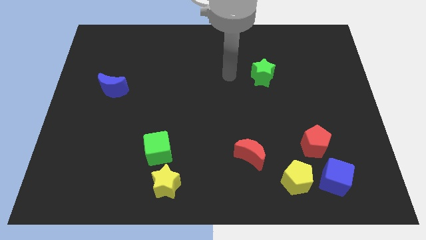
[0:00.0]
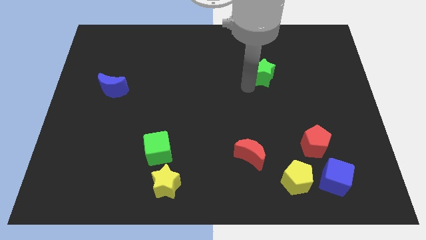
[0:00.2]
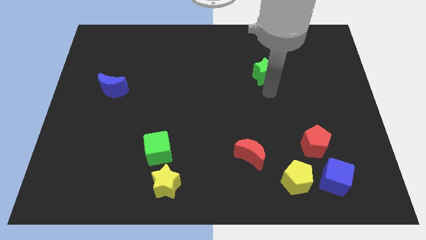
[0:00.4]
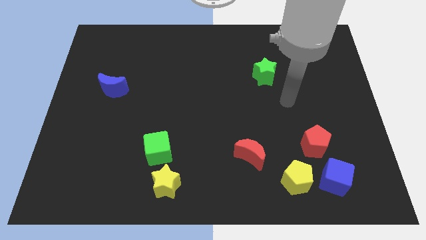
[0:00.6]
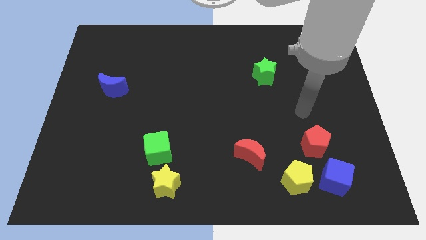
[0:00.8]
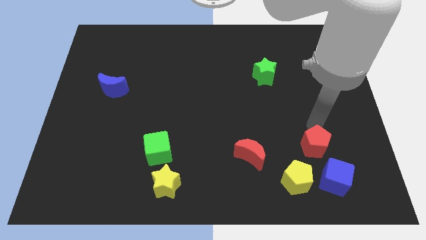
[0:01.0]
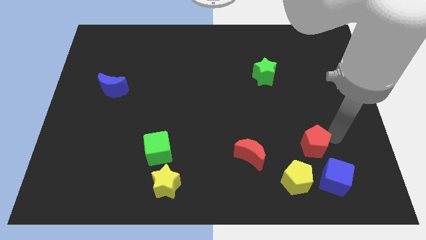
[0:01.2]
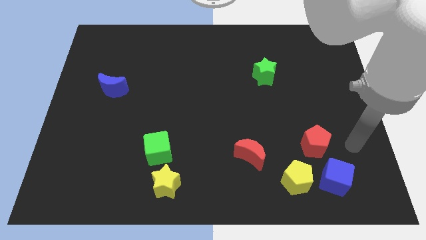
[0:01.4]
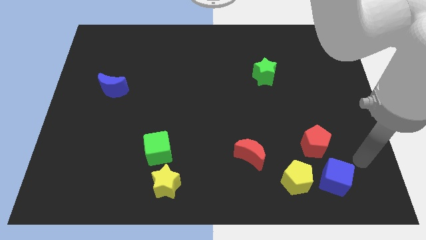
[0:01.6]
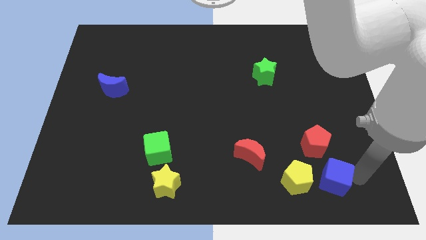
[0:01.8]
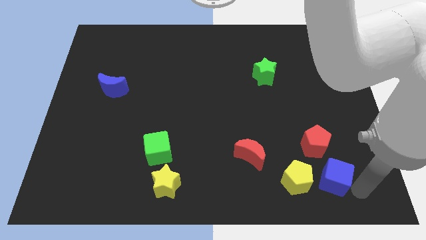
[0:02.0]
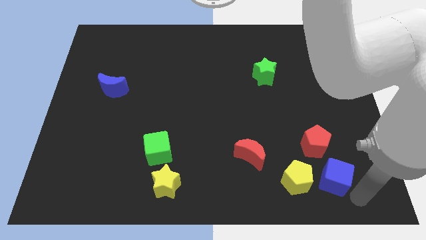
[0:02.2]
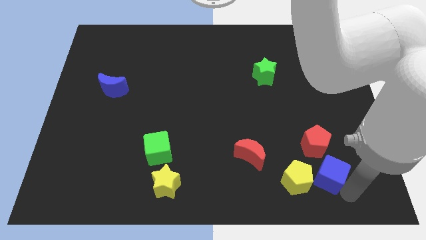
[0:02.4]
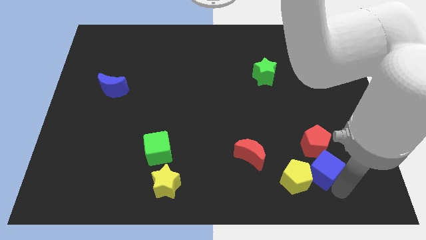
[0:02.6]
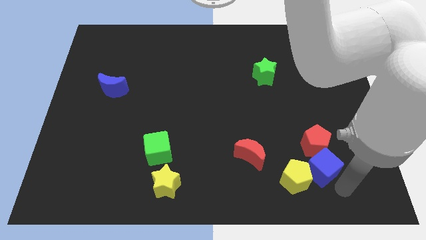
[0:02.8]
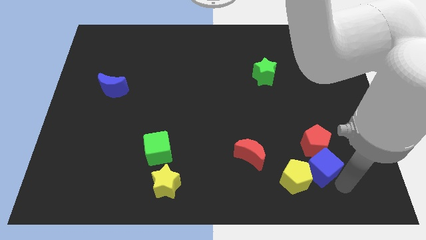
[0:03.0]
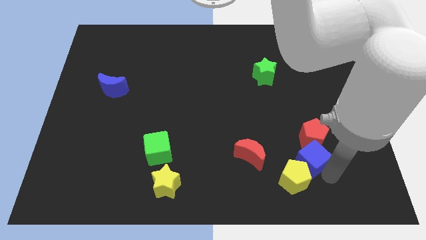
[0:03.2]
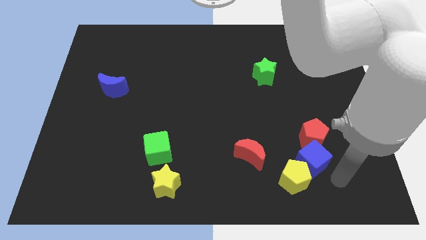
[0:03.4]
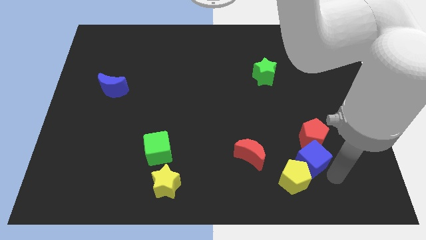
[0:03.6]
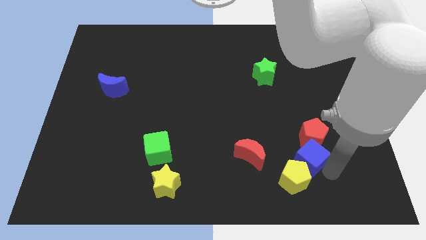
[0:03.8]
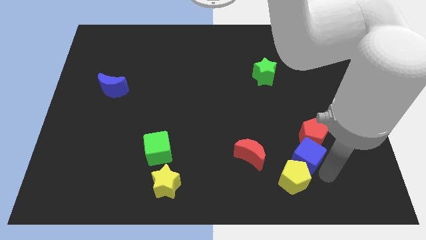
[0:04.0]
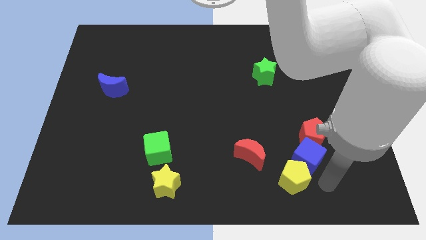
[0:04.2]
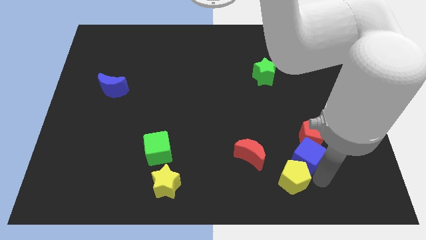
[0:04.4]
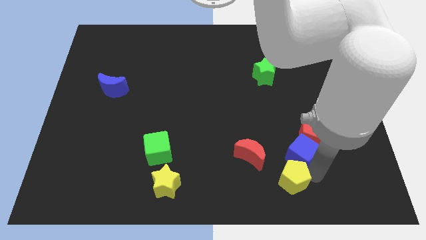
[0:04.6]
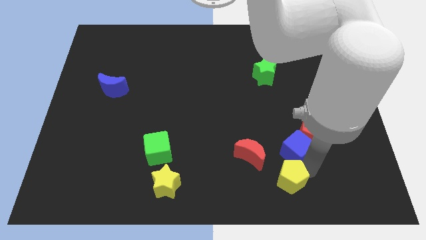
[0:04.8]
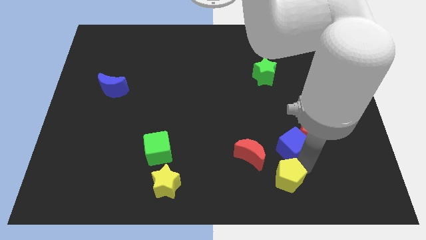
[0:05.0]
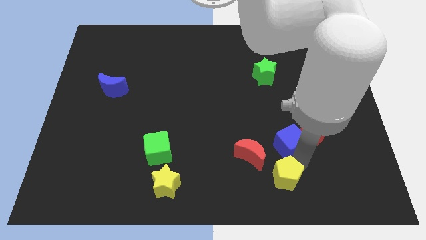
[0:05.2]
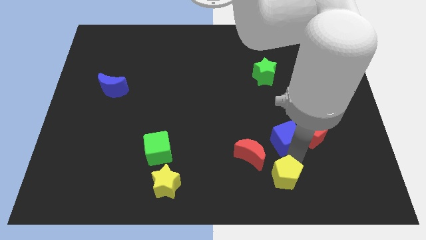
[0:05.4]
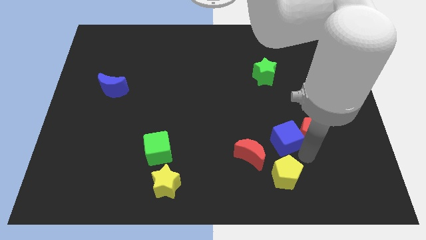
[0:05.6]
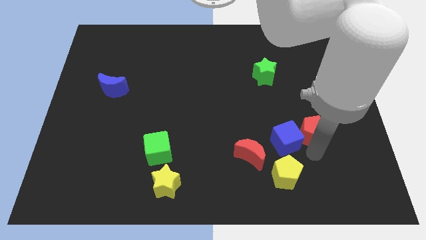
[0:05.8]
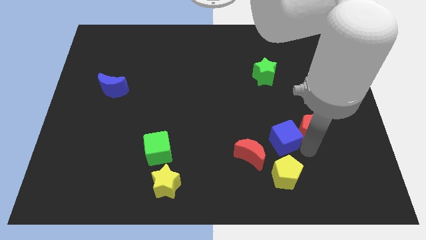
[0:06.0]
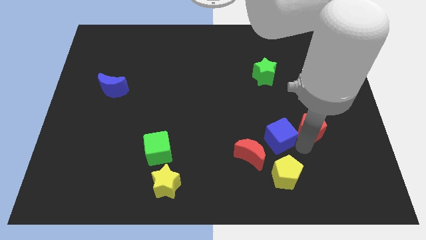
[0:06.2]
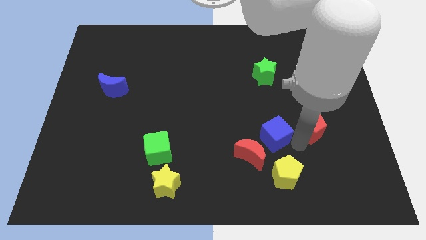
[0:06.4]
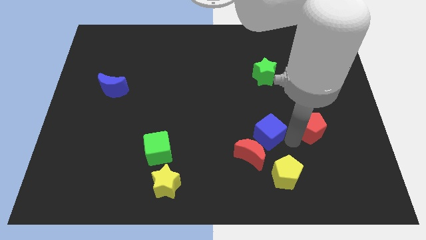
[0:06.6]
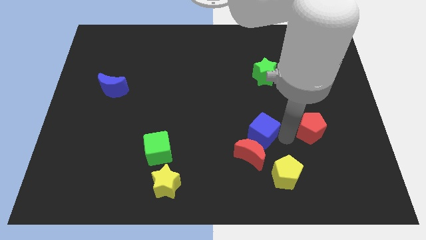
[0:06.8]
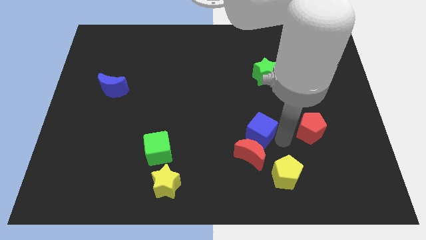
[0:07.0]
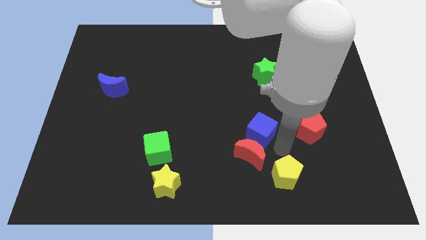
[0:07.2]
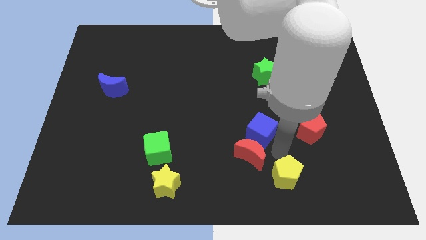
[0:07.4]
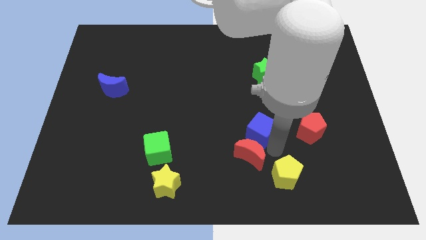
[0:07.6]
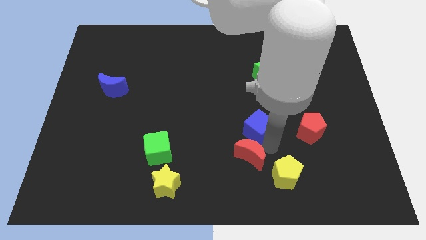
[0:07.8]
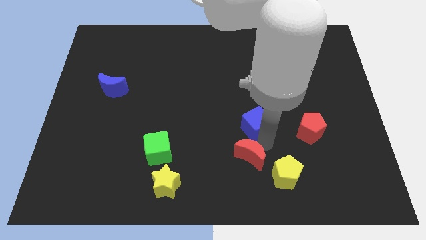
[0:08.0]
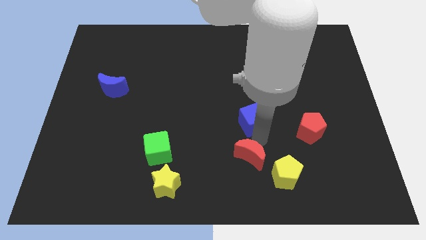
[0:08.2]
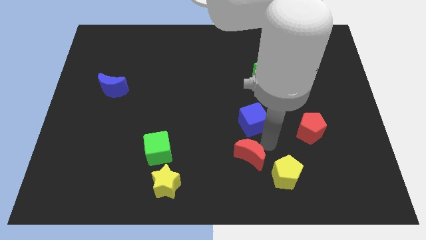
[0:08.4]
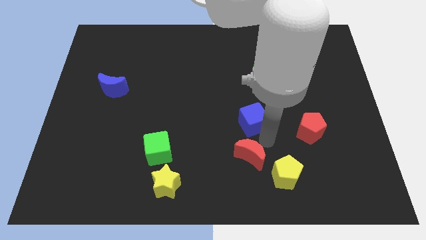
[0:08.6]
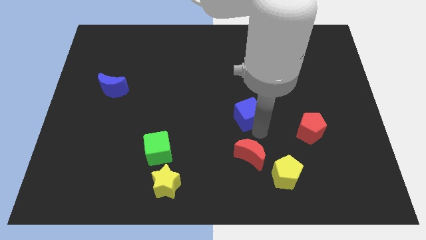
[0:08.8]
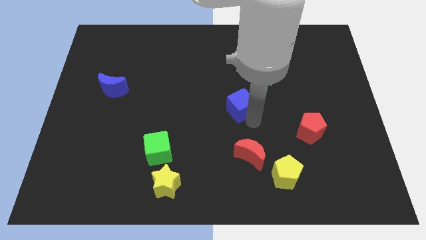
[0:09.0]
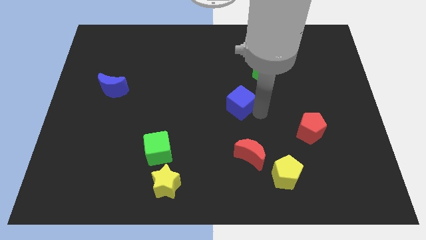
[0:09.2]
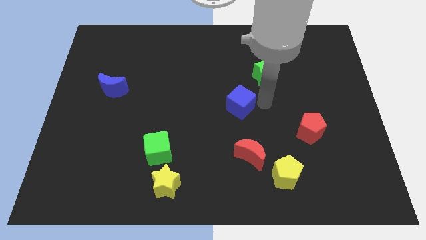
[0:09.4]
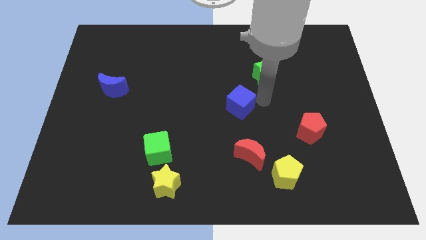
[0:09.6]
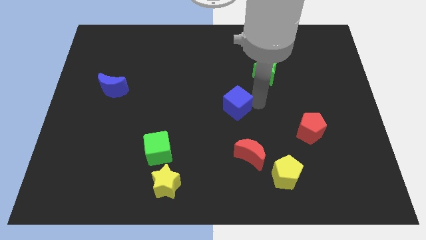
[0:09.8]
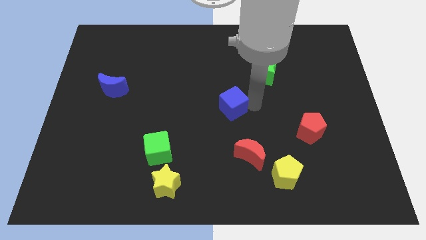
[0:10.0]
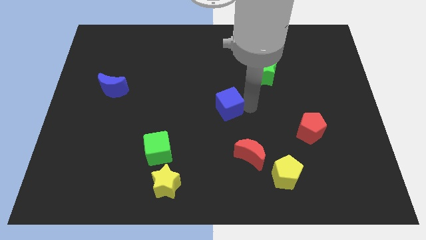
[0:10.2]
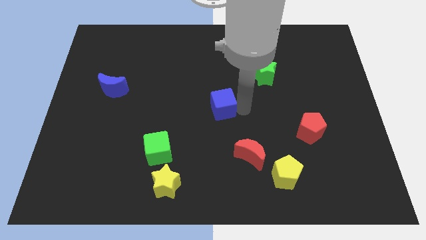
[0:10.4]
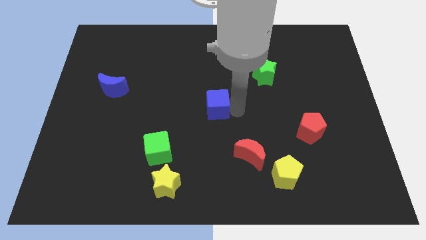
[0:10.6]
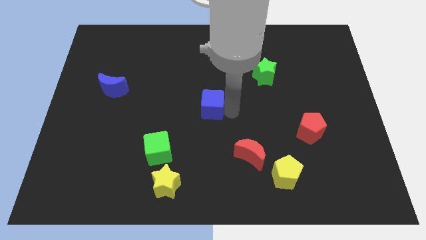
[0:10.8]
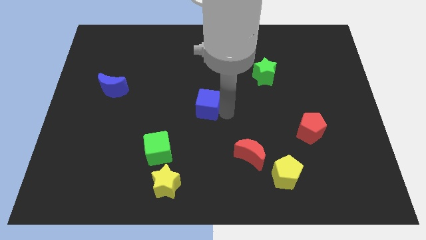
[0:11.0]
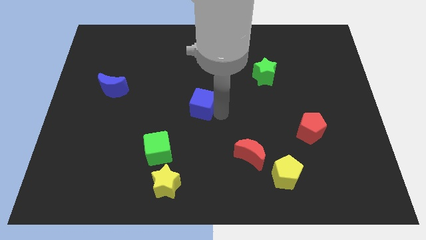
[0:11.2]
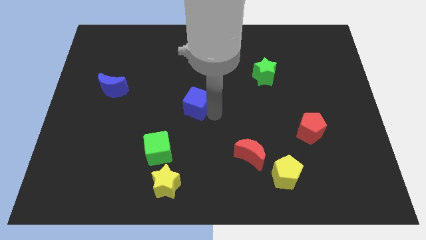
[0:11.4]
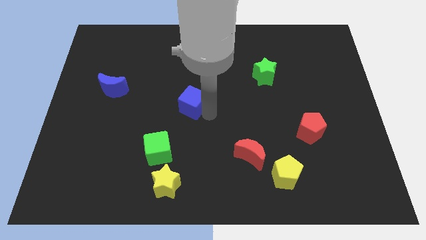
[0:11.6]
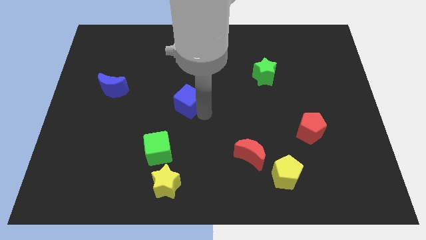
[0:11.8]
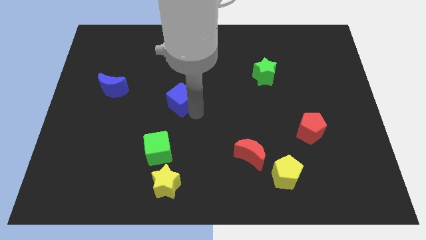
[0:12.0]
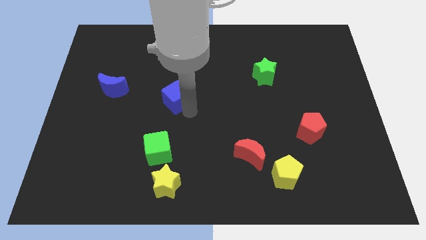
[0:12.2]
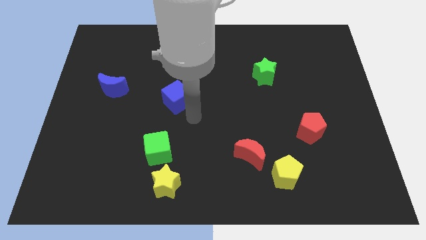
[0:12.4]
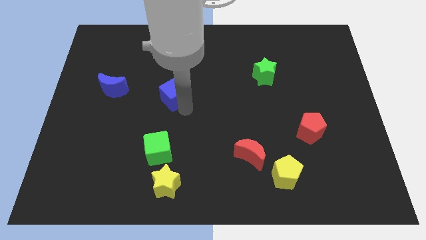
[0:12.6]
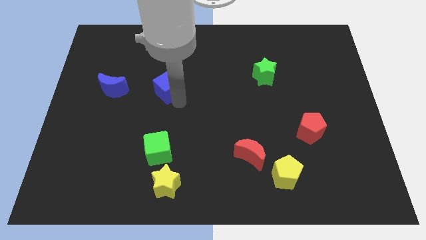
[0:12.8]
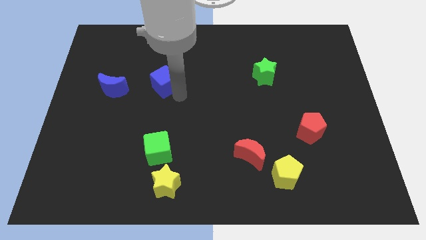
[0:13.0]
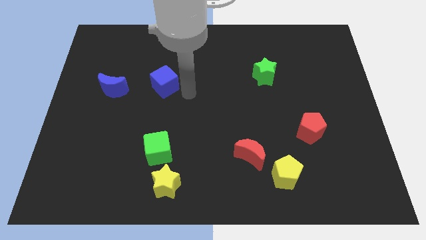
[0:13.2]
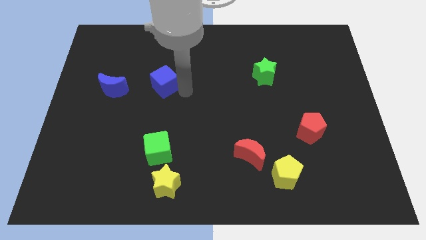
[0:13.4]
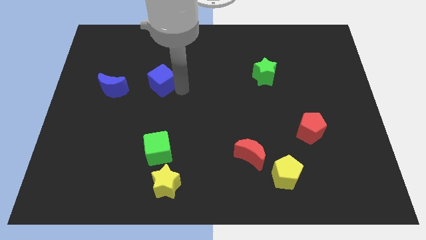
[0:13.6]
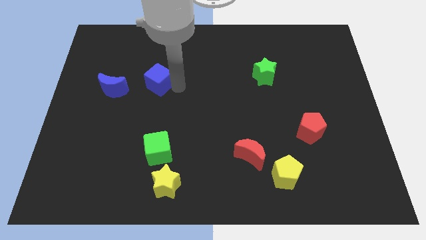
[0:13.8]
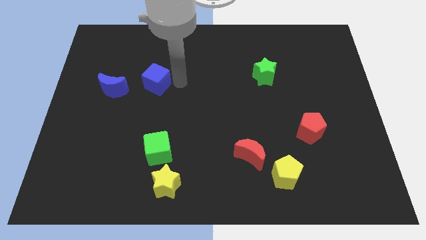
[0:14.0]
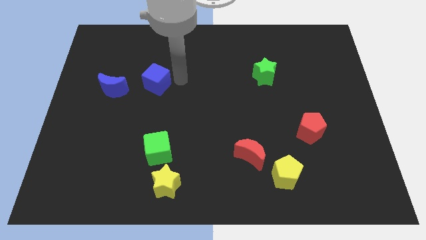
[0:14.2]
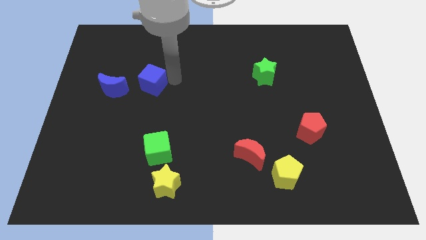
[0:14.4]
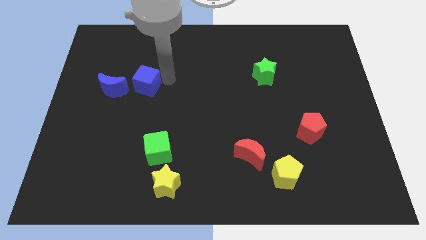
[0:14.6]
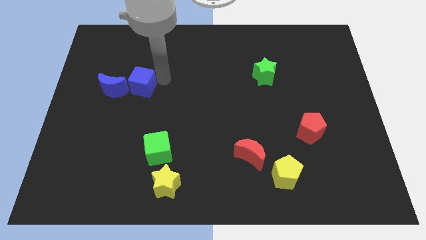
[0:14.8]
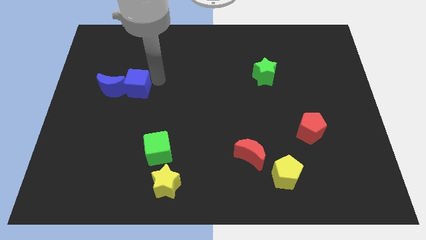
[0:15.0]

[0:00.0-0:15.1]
move the blue cube next to the blue moon

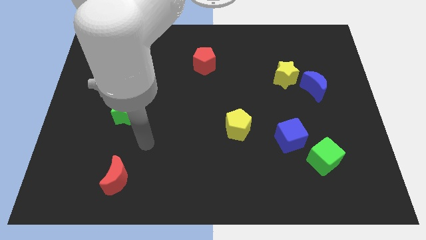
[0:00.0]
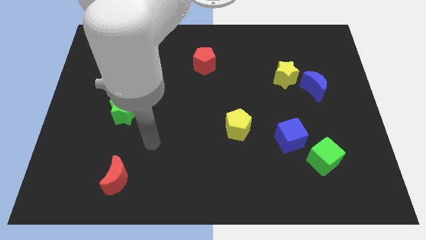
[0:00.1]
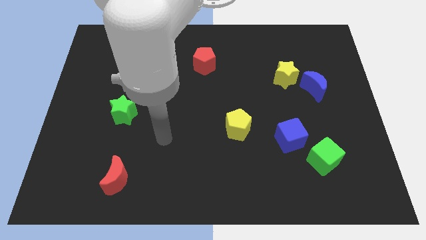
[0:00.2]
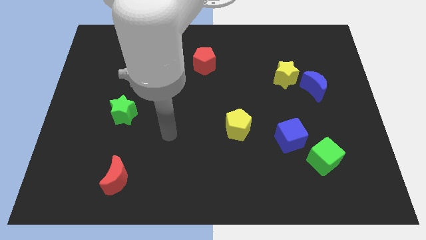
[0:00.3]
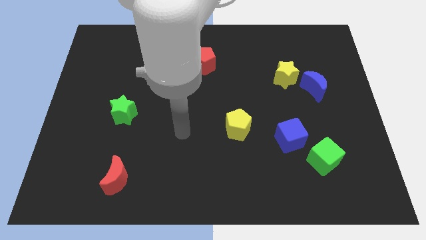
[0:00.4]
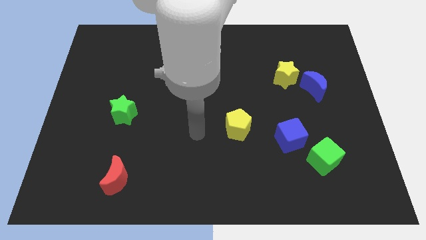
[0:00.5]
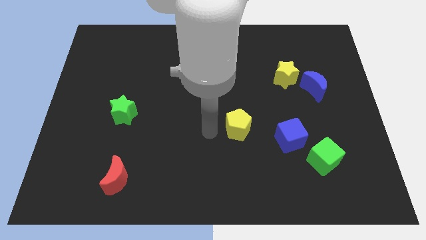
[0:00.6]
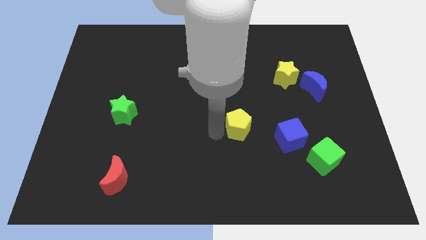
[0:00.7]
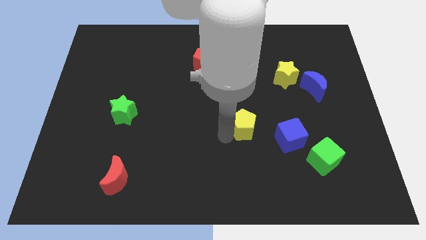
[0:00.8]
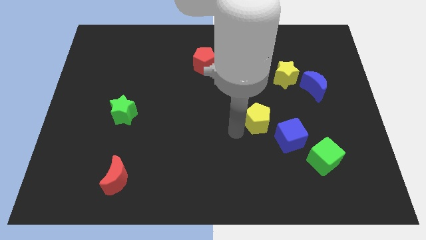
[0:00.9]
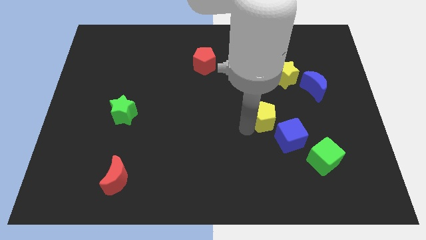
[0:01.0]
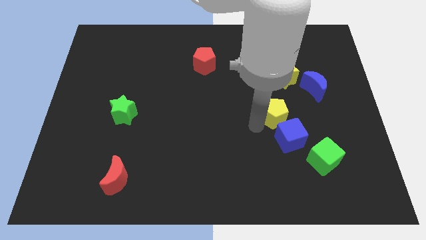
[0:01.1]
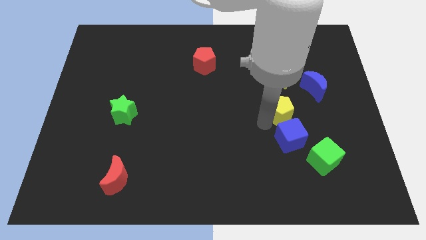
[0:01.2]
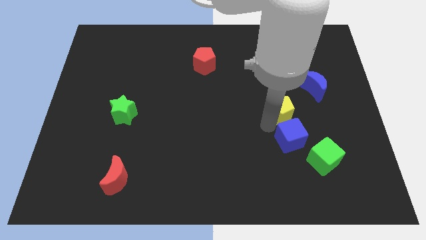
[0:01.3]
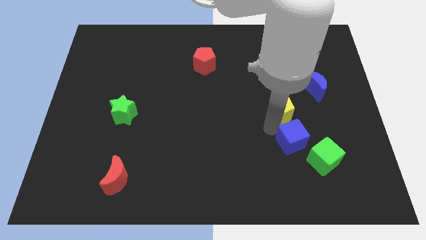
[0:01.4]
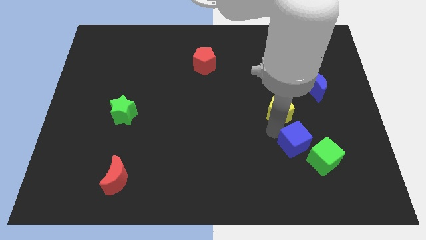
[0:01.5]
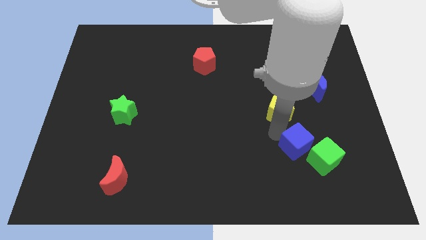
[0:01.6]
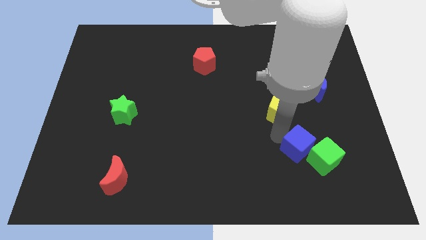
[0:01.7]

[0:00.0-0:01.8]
put the blue cube towards the green cube
